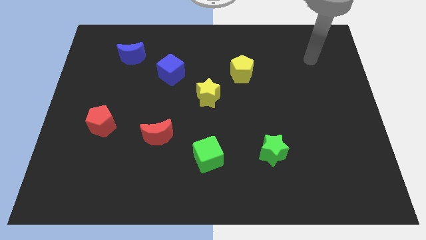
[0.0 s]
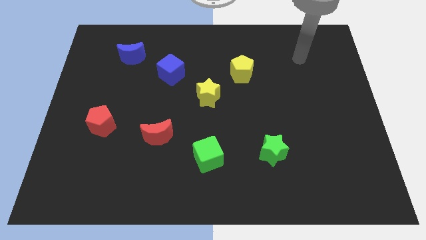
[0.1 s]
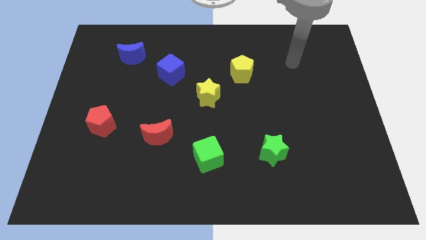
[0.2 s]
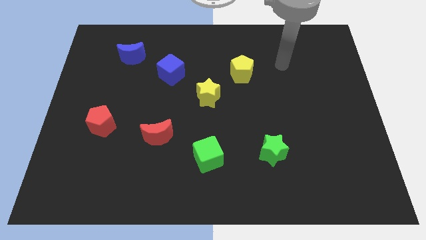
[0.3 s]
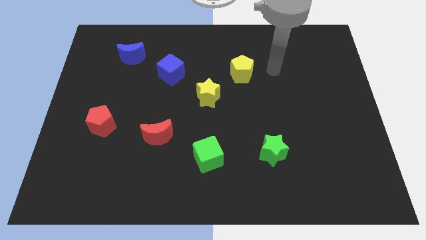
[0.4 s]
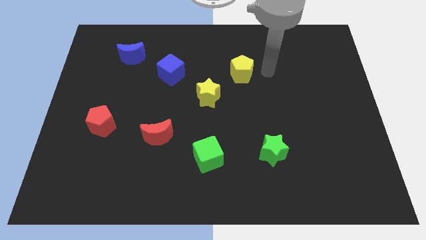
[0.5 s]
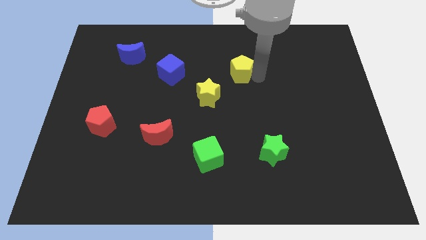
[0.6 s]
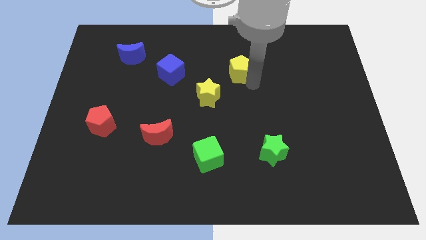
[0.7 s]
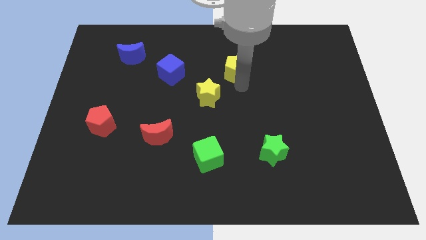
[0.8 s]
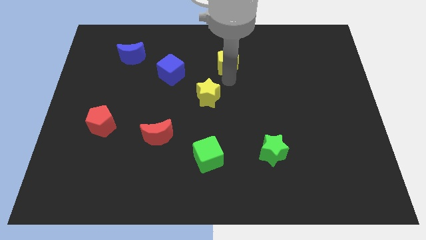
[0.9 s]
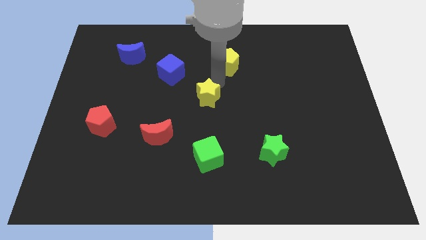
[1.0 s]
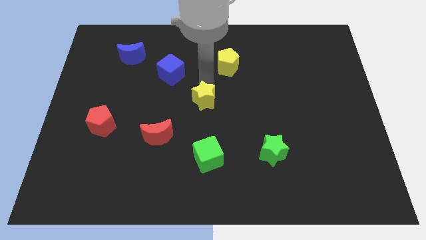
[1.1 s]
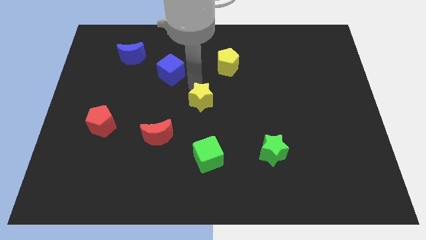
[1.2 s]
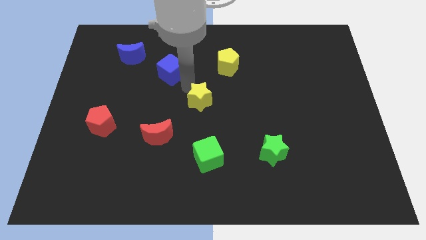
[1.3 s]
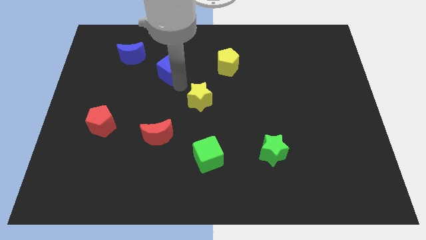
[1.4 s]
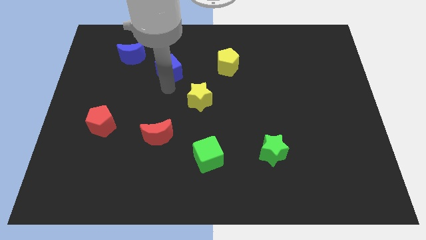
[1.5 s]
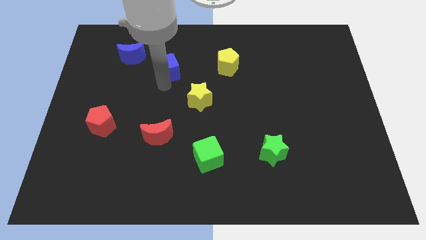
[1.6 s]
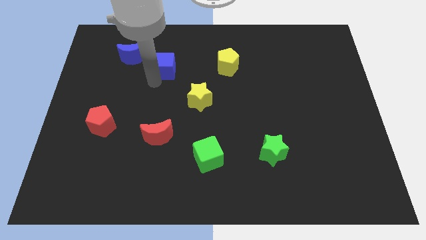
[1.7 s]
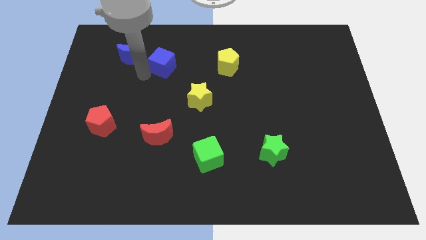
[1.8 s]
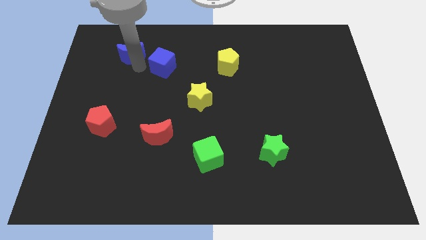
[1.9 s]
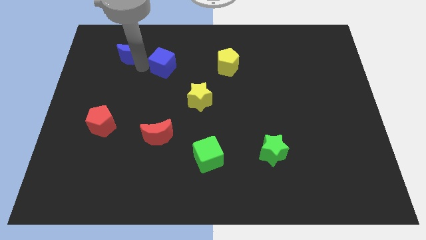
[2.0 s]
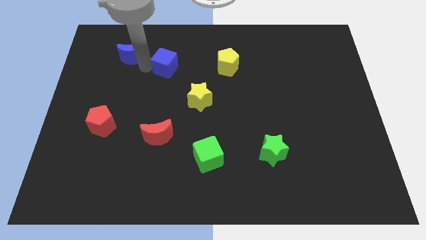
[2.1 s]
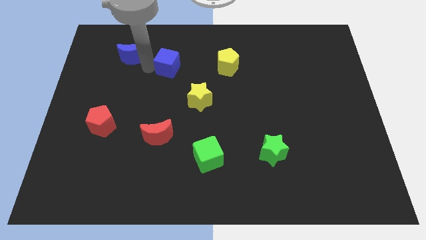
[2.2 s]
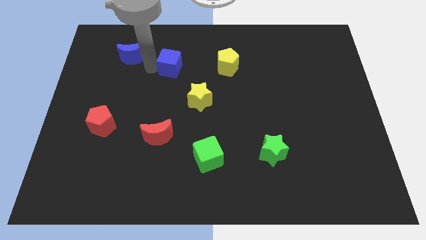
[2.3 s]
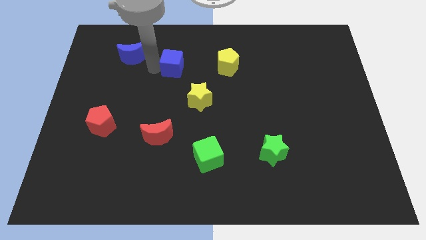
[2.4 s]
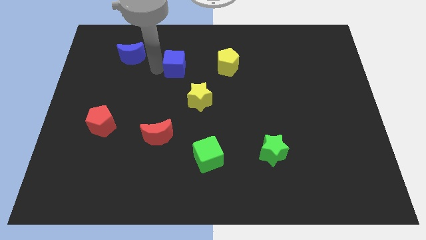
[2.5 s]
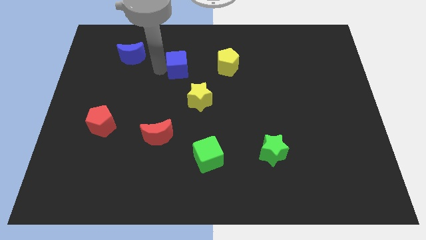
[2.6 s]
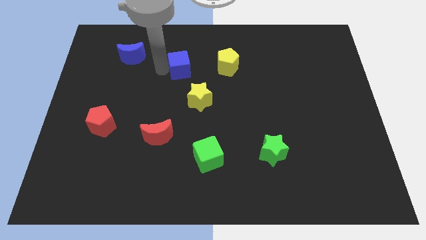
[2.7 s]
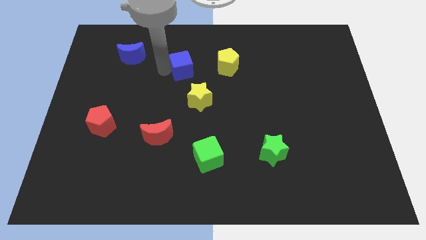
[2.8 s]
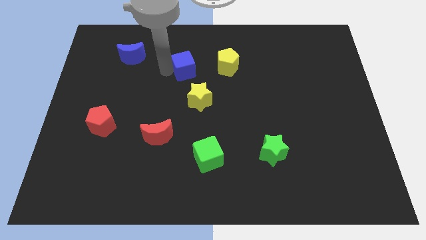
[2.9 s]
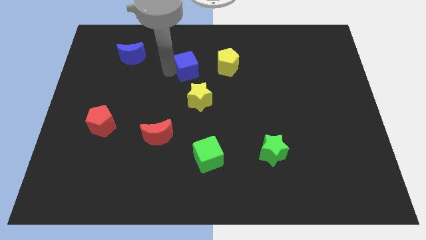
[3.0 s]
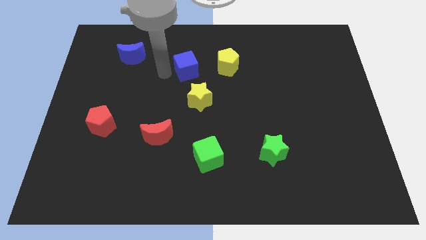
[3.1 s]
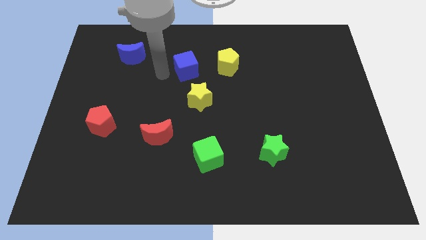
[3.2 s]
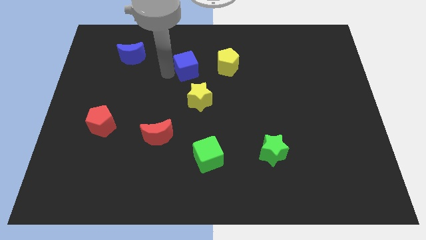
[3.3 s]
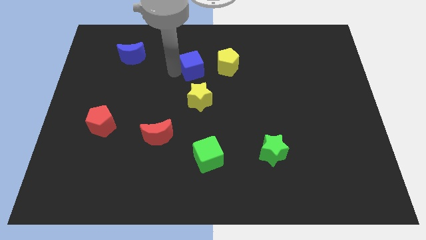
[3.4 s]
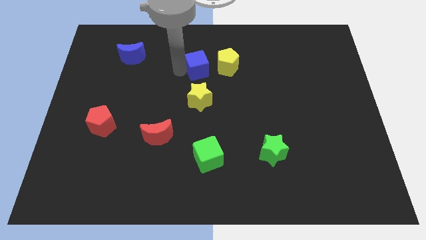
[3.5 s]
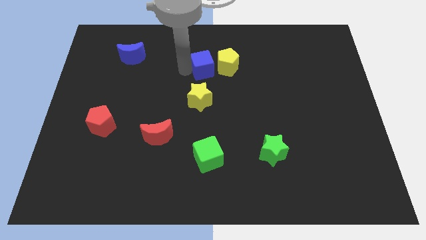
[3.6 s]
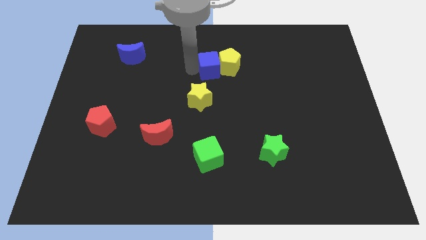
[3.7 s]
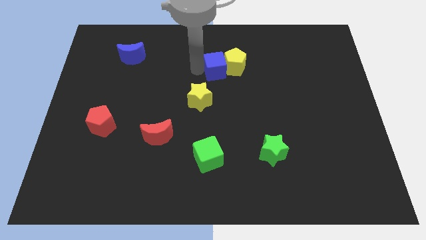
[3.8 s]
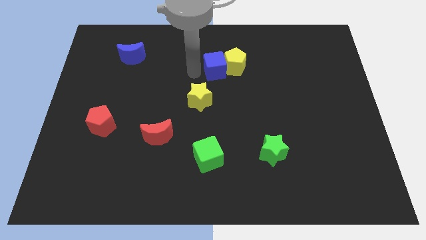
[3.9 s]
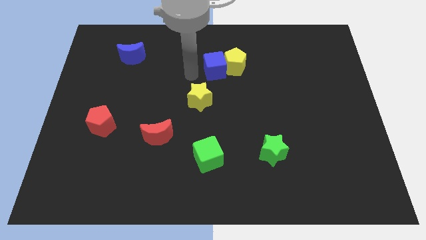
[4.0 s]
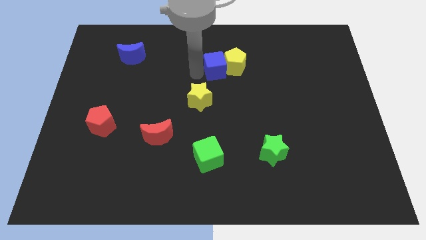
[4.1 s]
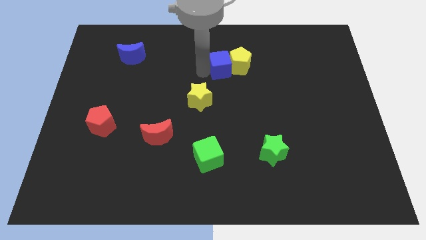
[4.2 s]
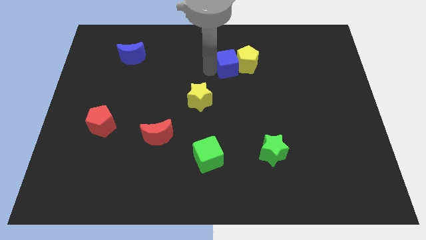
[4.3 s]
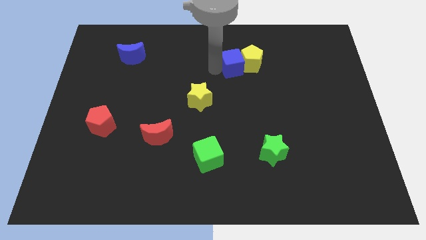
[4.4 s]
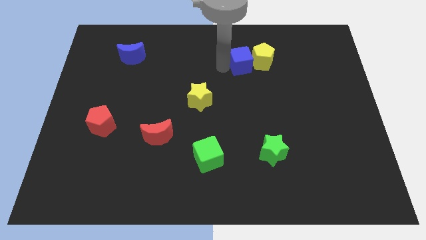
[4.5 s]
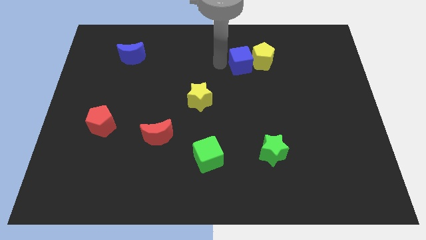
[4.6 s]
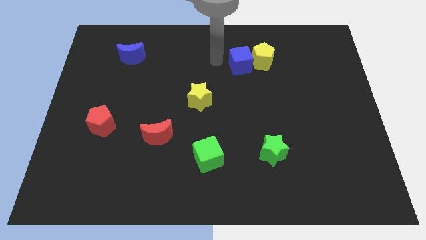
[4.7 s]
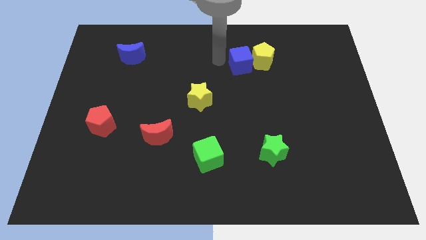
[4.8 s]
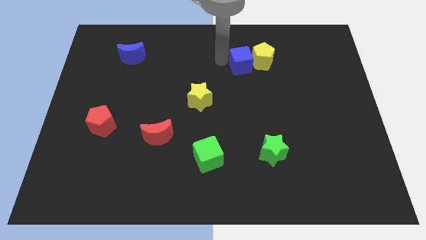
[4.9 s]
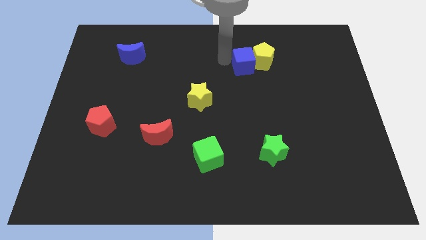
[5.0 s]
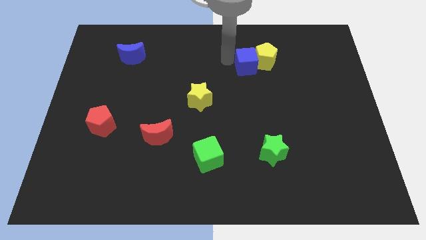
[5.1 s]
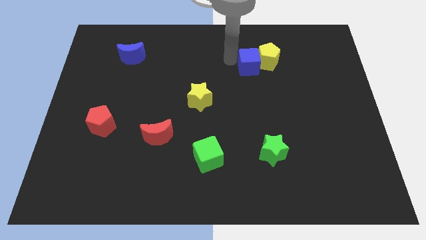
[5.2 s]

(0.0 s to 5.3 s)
push the blue cube right

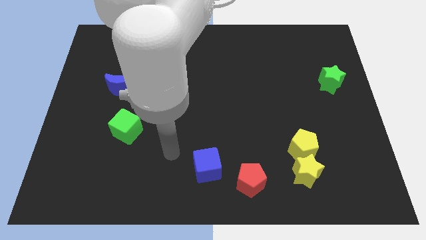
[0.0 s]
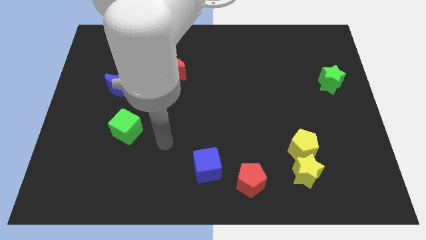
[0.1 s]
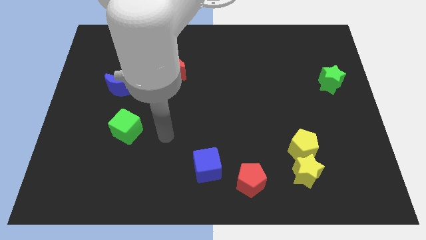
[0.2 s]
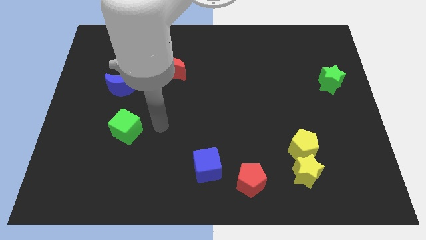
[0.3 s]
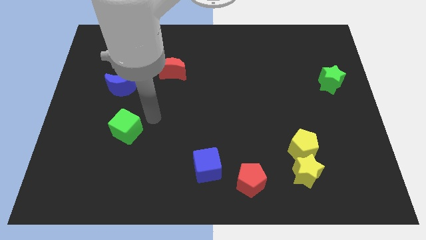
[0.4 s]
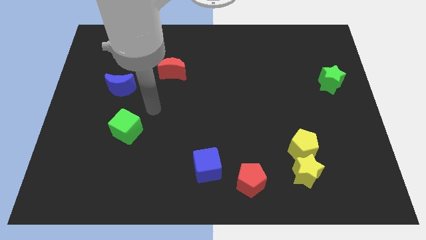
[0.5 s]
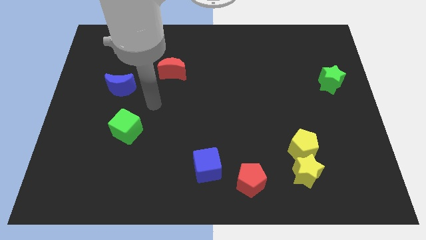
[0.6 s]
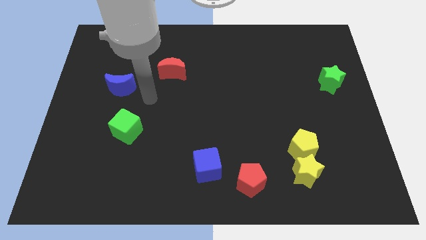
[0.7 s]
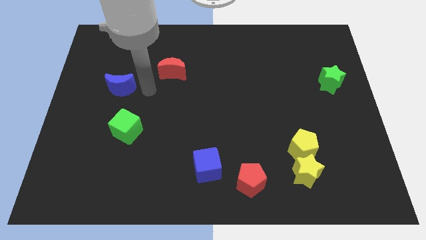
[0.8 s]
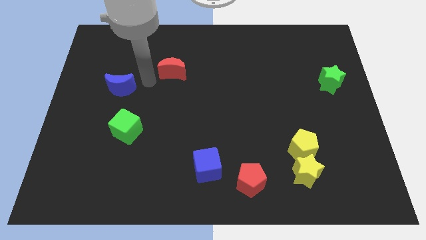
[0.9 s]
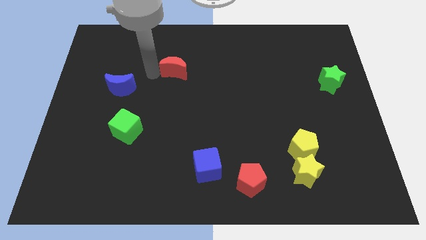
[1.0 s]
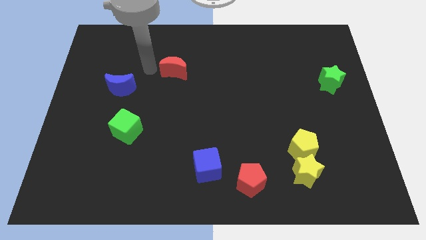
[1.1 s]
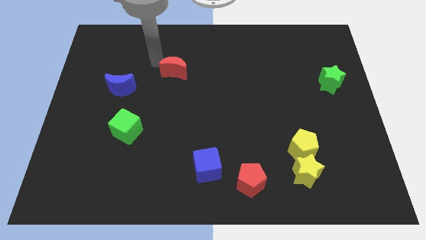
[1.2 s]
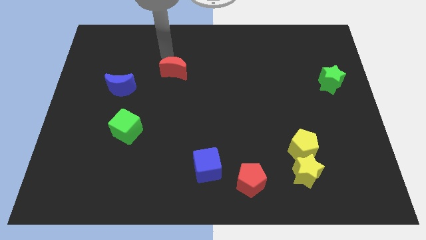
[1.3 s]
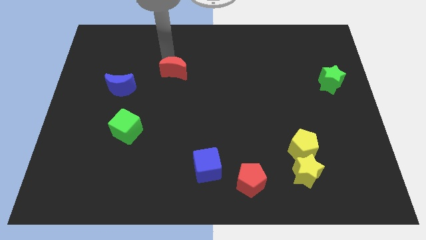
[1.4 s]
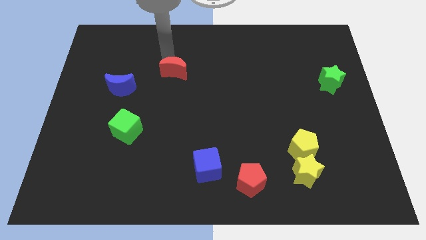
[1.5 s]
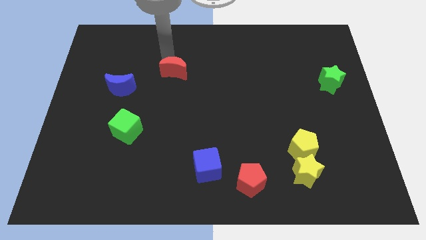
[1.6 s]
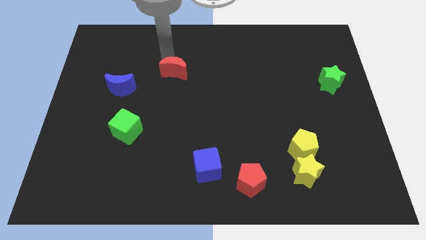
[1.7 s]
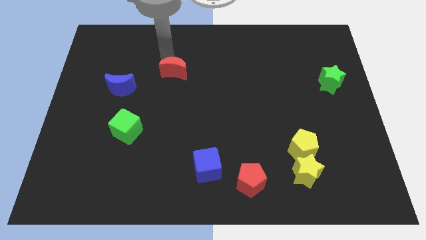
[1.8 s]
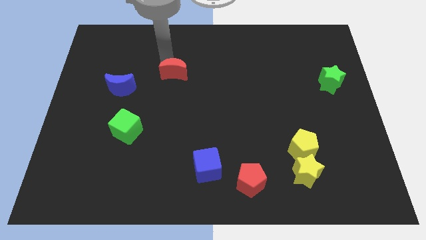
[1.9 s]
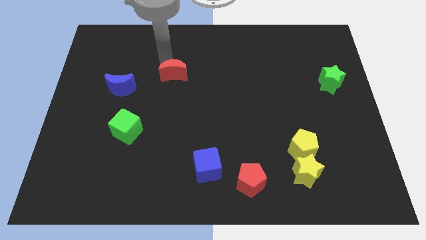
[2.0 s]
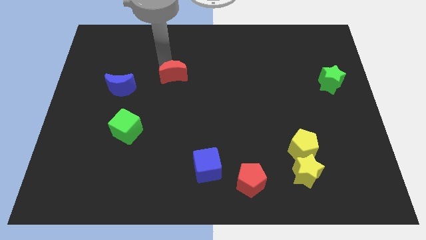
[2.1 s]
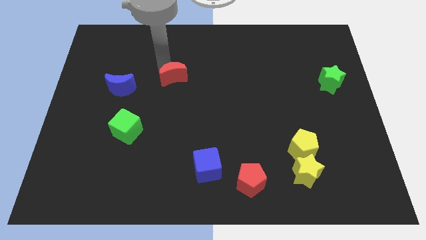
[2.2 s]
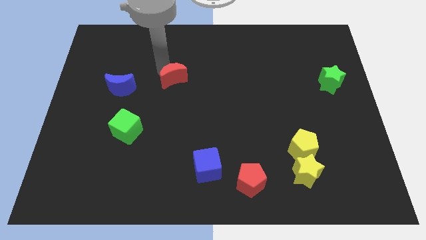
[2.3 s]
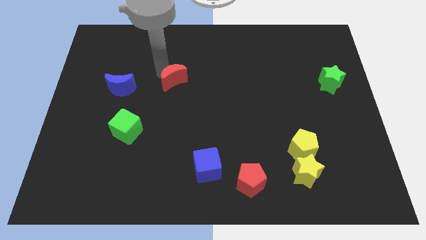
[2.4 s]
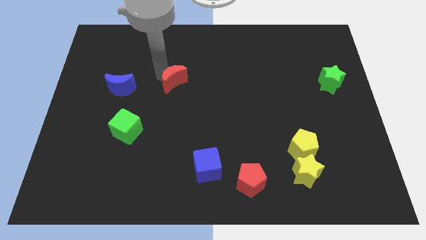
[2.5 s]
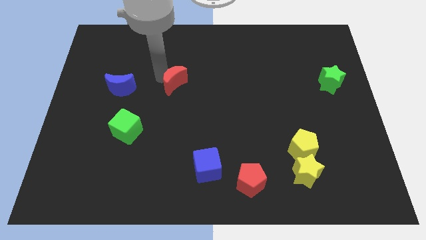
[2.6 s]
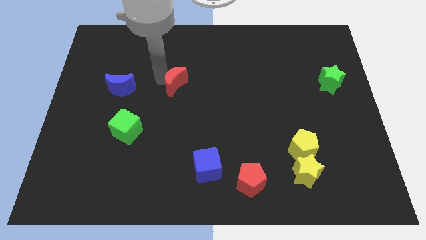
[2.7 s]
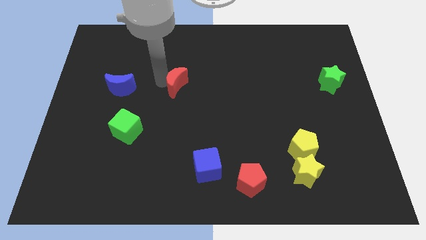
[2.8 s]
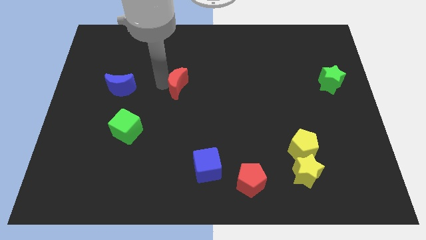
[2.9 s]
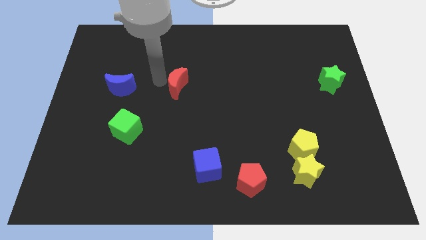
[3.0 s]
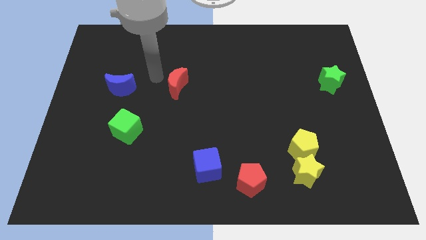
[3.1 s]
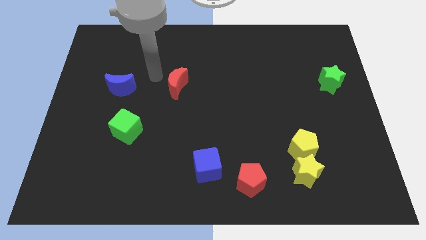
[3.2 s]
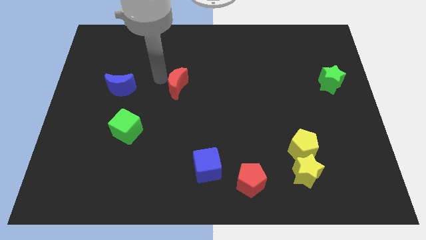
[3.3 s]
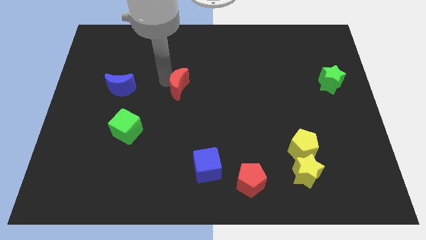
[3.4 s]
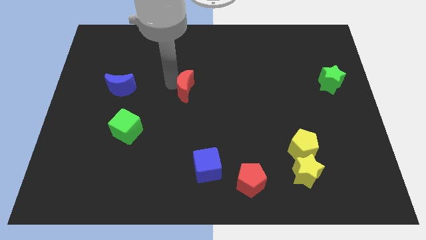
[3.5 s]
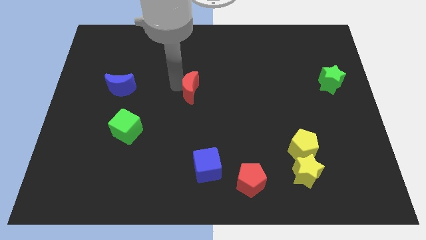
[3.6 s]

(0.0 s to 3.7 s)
push the red moon diagonally downwards and to the right somewhat
